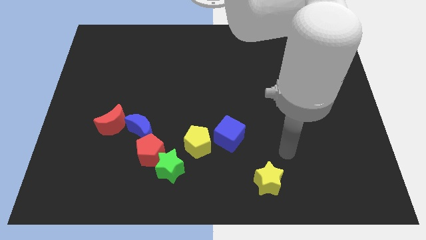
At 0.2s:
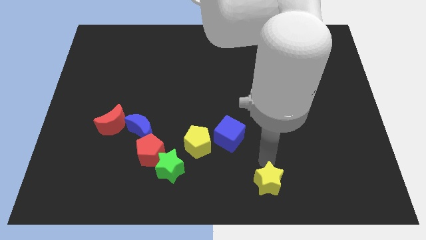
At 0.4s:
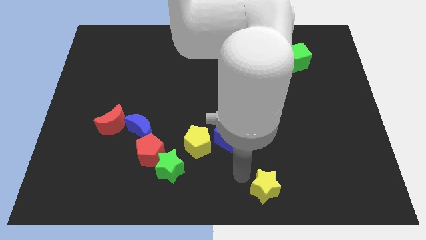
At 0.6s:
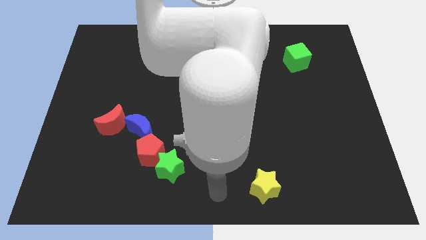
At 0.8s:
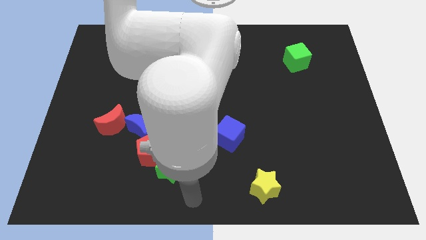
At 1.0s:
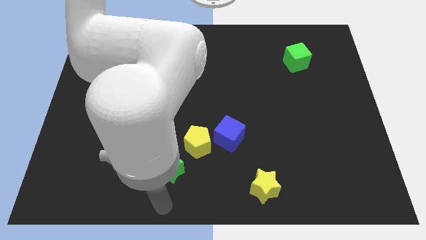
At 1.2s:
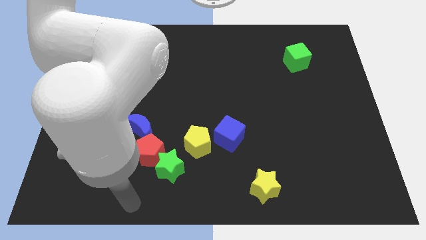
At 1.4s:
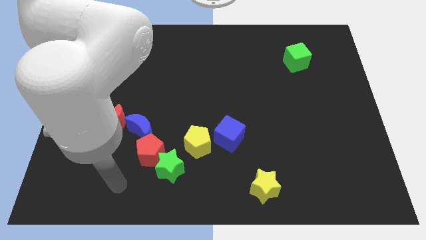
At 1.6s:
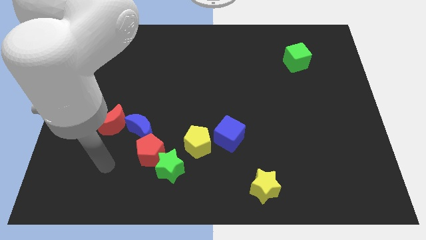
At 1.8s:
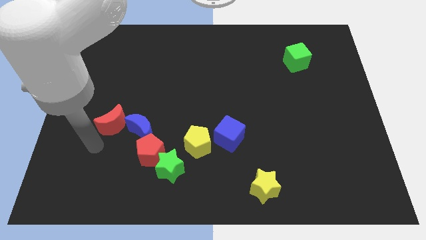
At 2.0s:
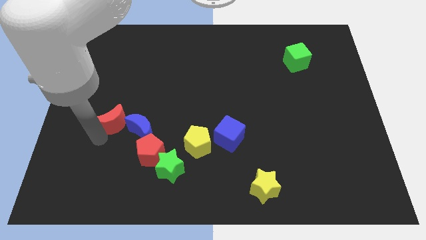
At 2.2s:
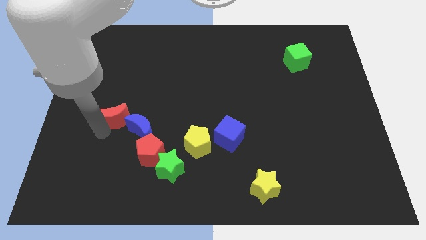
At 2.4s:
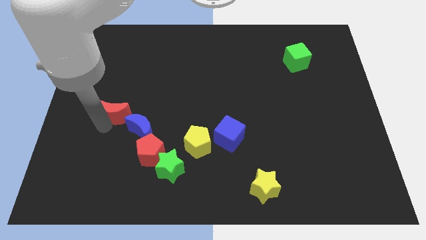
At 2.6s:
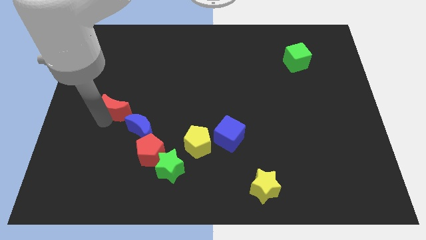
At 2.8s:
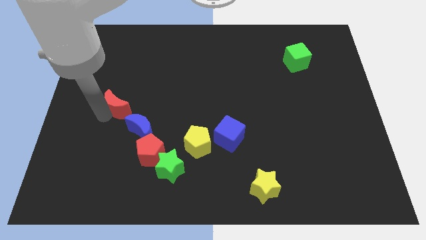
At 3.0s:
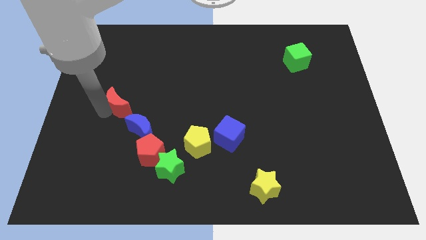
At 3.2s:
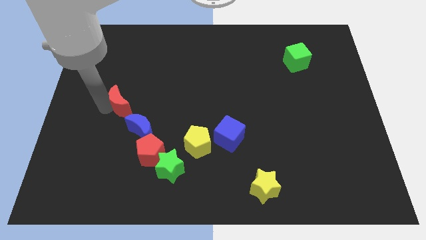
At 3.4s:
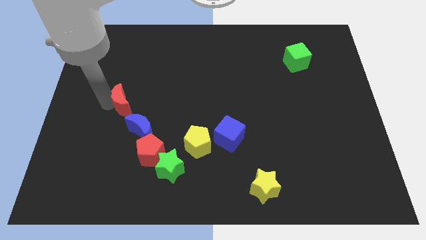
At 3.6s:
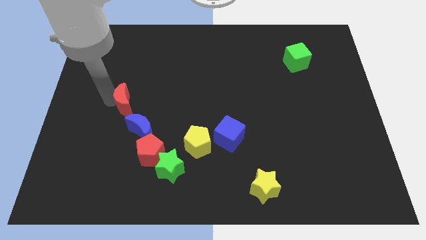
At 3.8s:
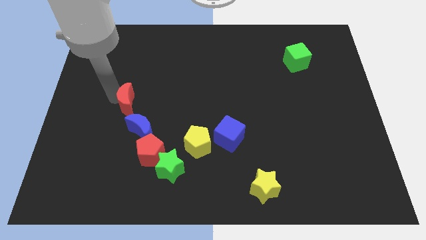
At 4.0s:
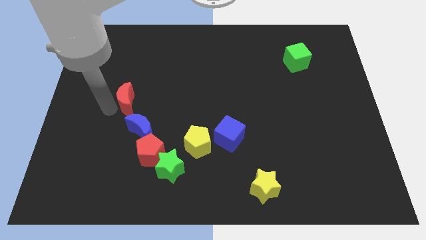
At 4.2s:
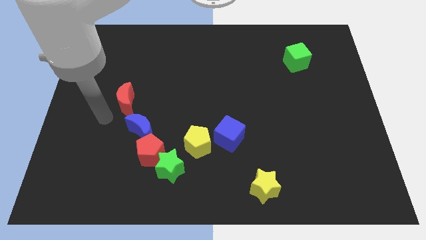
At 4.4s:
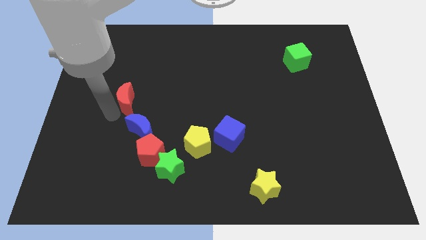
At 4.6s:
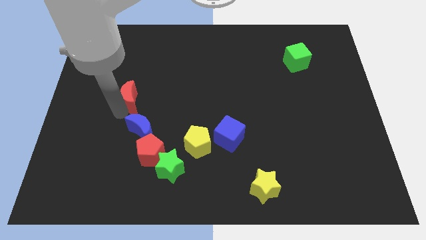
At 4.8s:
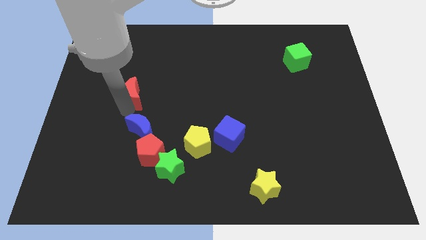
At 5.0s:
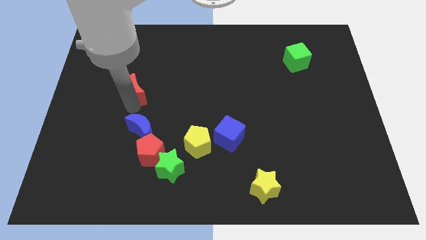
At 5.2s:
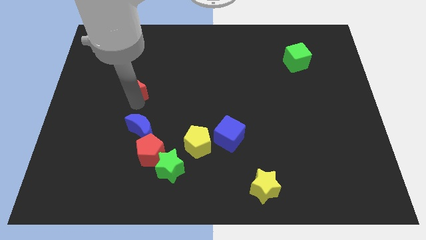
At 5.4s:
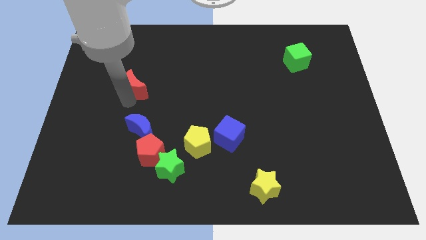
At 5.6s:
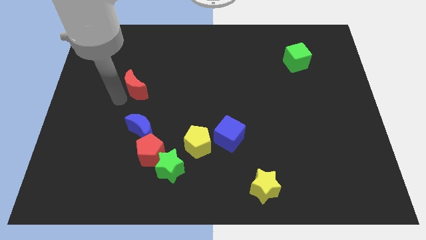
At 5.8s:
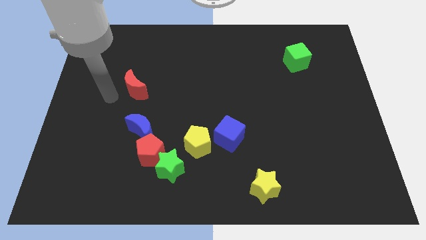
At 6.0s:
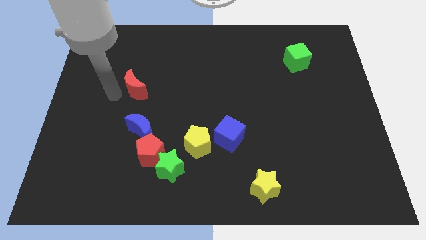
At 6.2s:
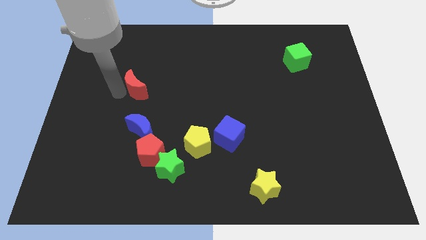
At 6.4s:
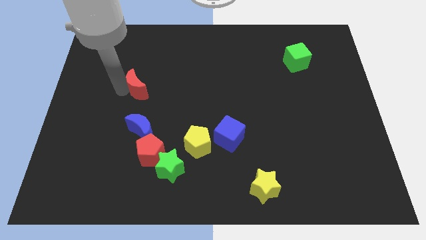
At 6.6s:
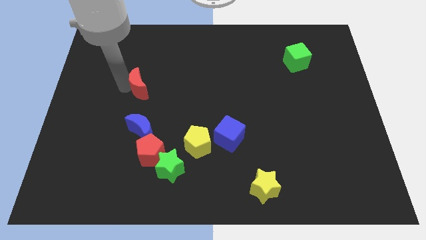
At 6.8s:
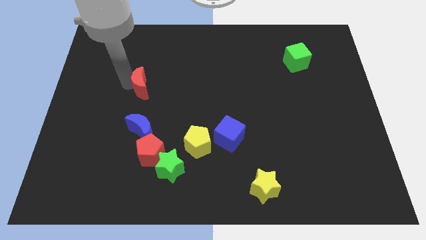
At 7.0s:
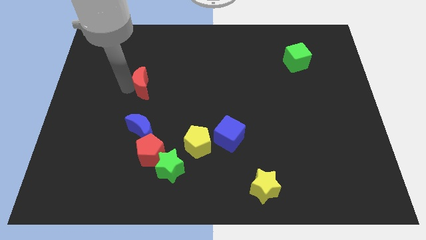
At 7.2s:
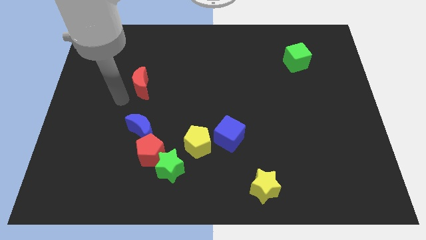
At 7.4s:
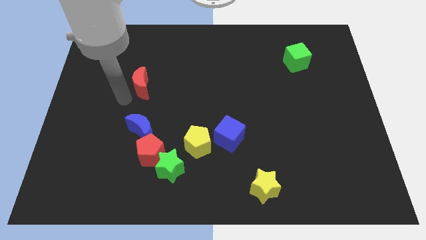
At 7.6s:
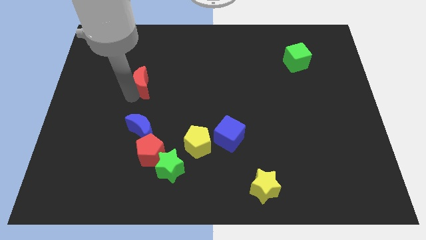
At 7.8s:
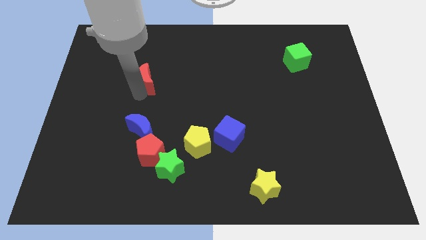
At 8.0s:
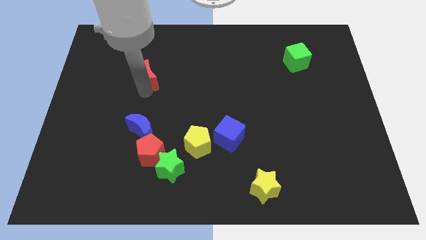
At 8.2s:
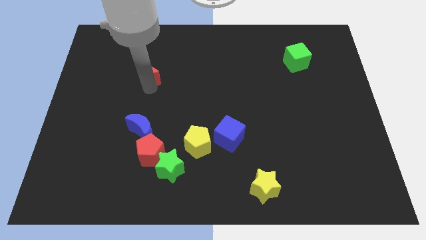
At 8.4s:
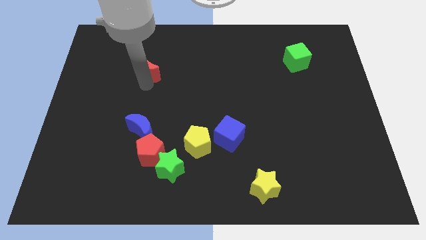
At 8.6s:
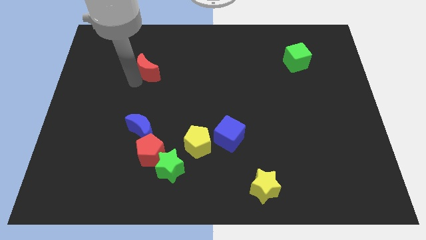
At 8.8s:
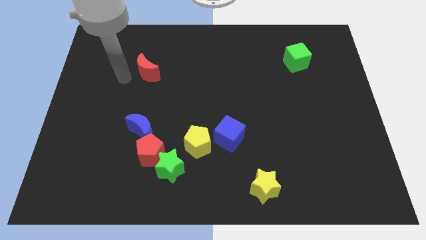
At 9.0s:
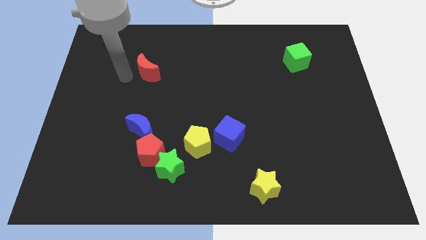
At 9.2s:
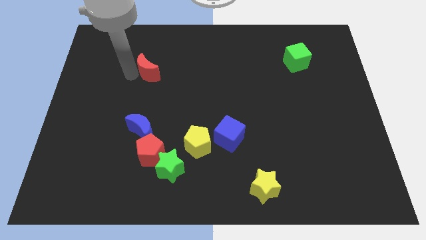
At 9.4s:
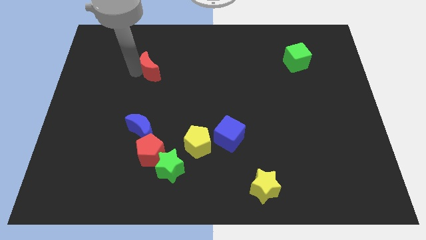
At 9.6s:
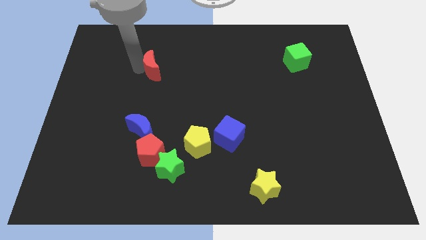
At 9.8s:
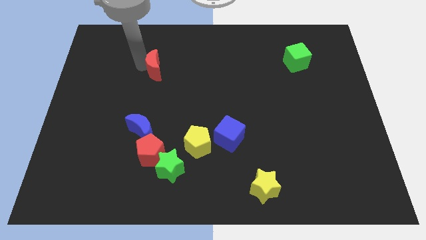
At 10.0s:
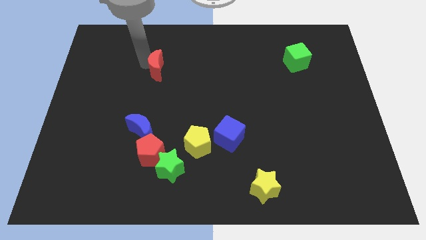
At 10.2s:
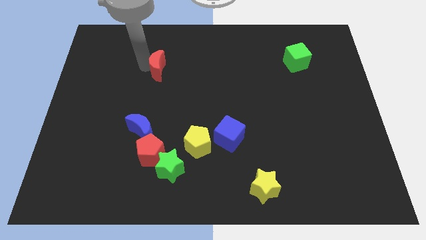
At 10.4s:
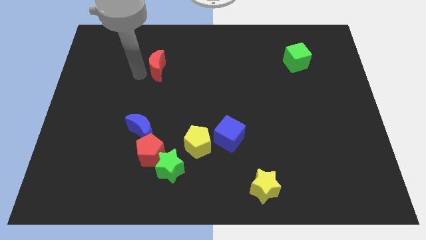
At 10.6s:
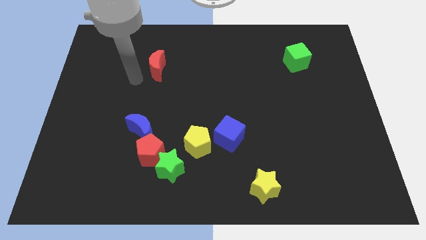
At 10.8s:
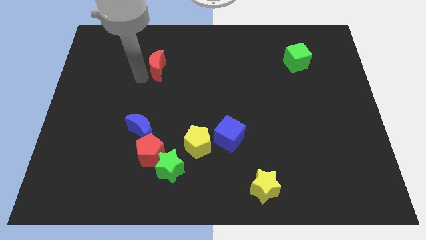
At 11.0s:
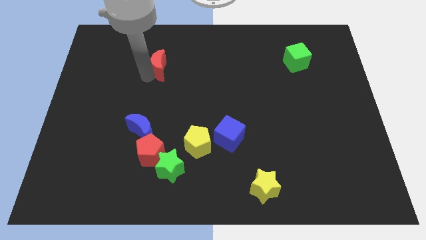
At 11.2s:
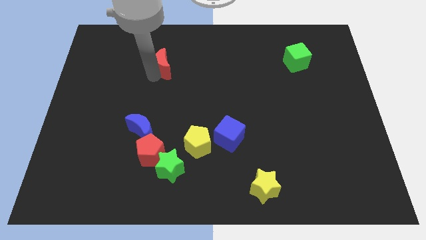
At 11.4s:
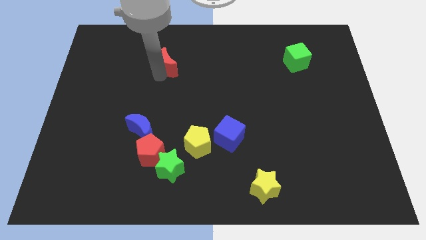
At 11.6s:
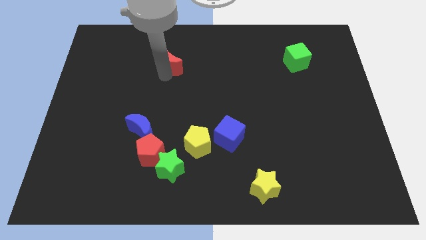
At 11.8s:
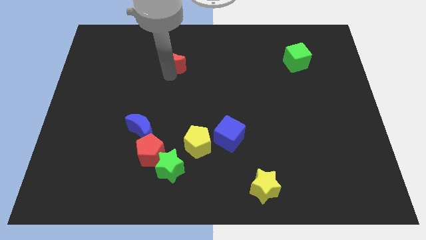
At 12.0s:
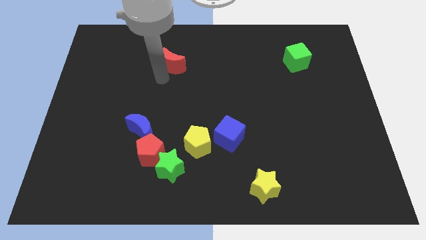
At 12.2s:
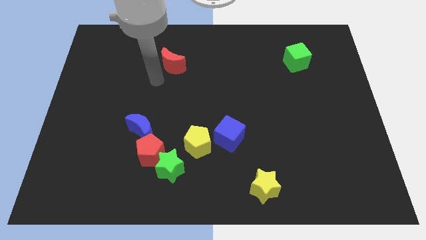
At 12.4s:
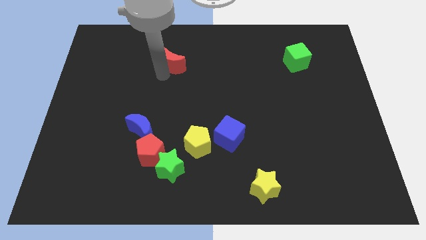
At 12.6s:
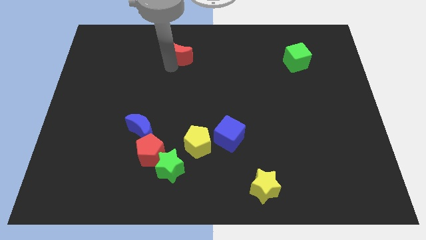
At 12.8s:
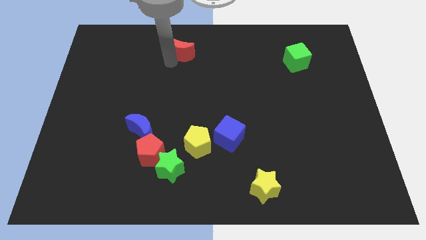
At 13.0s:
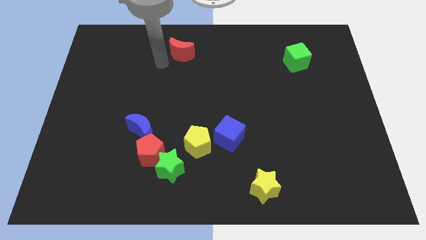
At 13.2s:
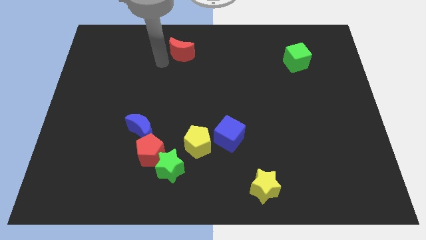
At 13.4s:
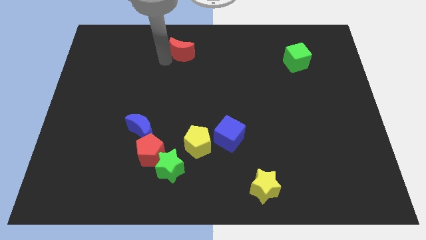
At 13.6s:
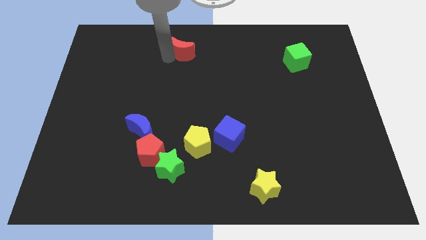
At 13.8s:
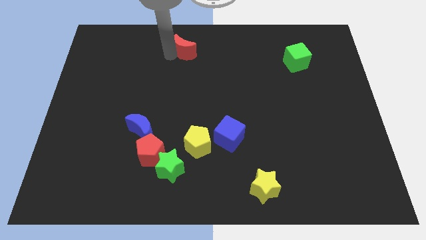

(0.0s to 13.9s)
push the red moon to the top
